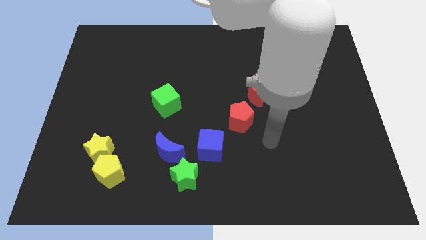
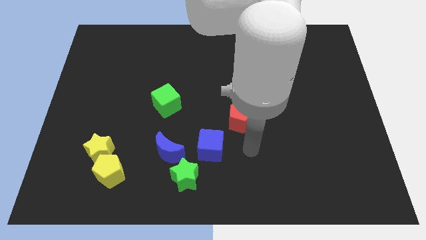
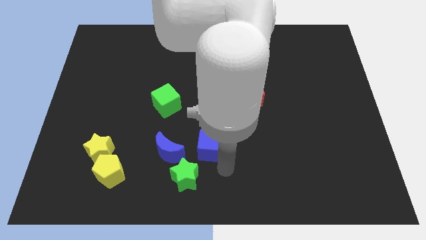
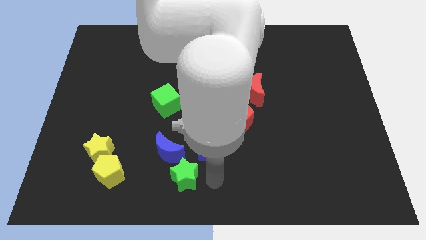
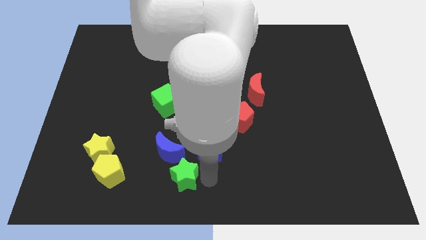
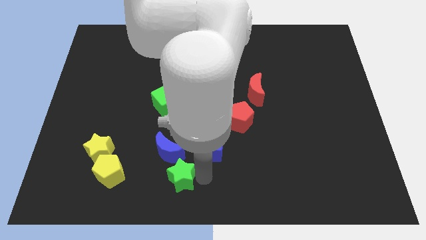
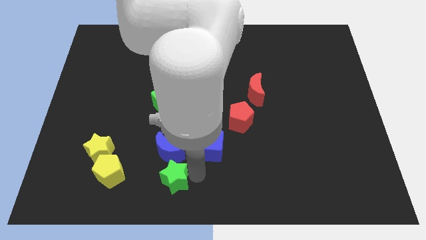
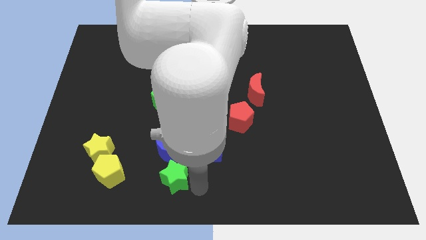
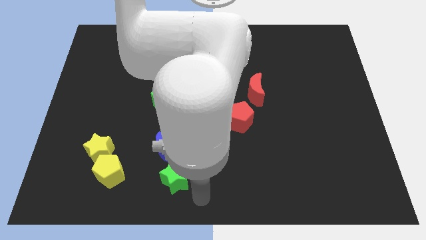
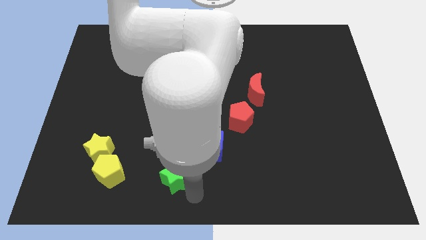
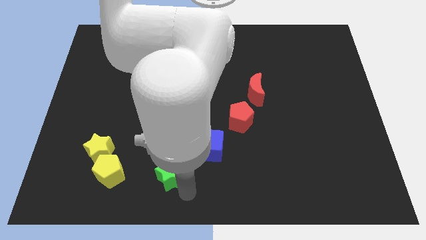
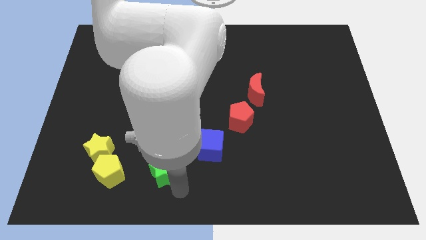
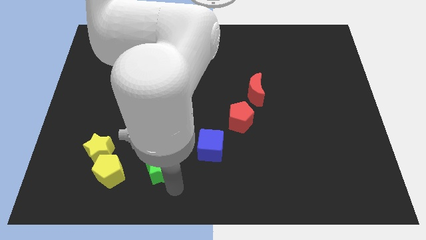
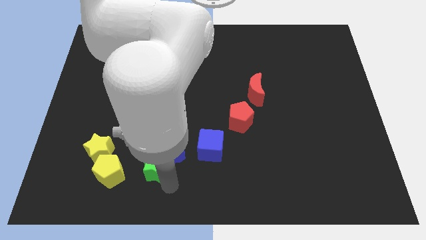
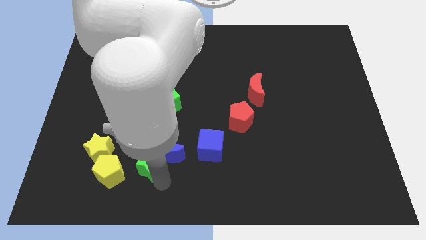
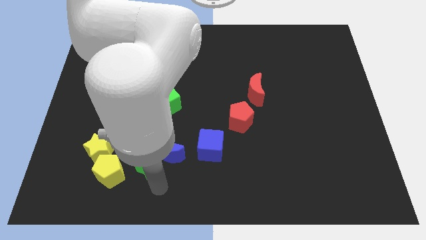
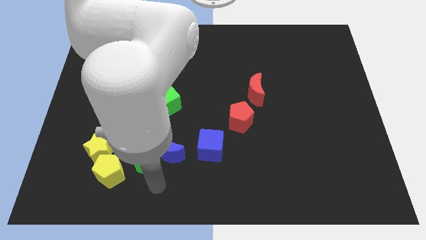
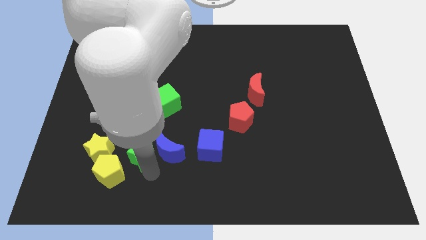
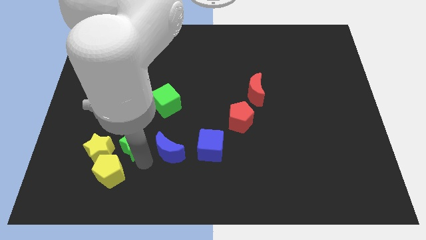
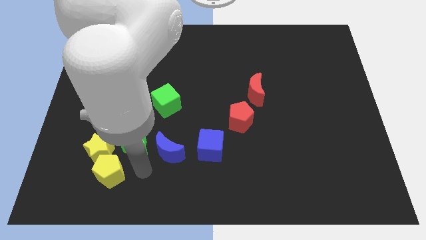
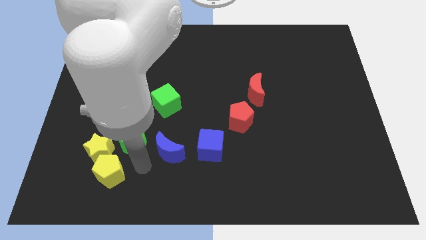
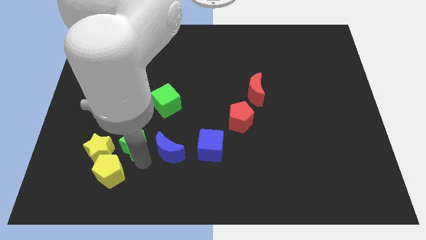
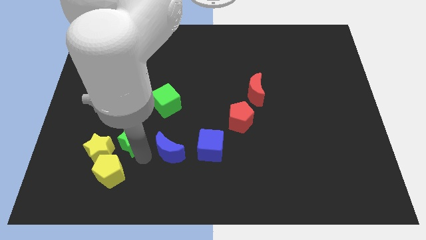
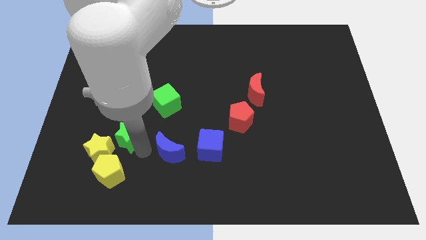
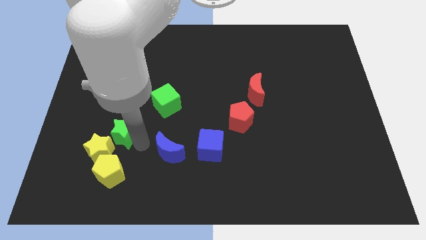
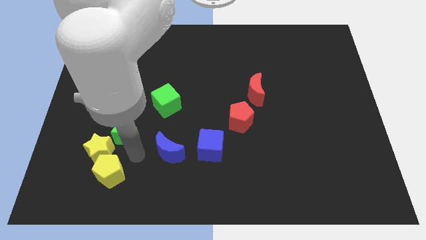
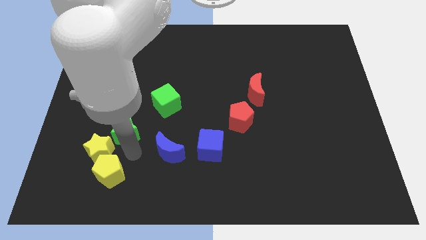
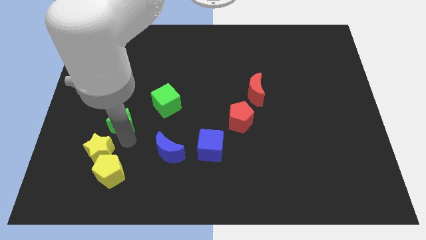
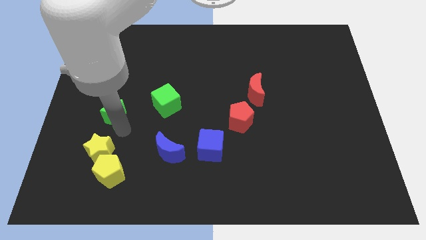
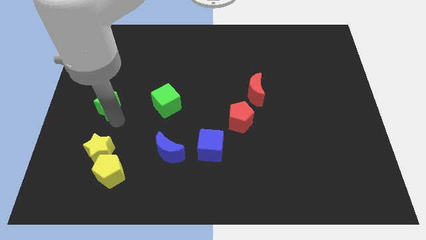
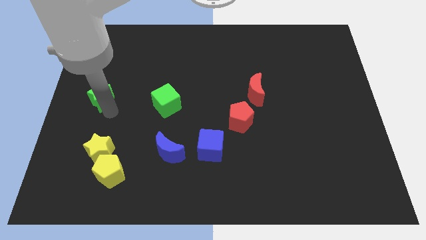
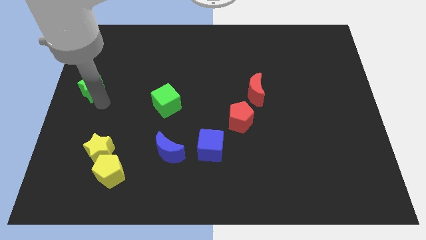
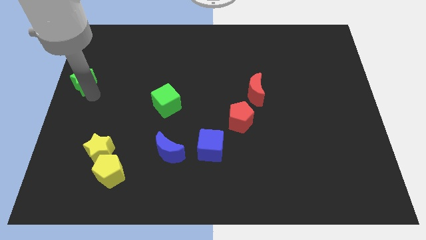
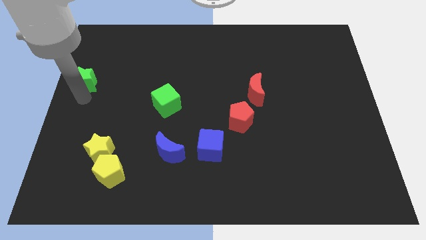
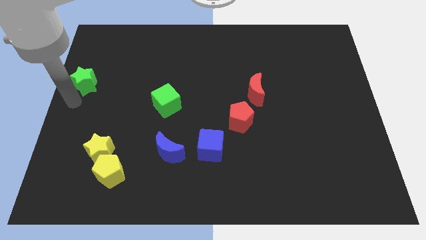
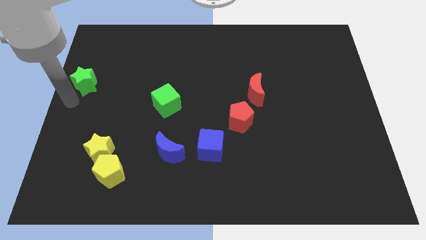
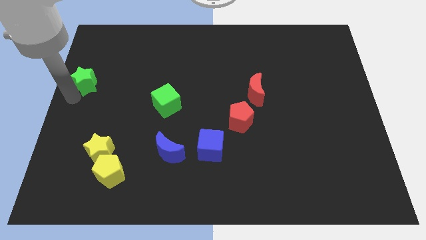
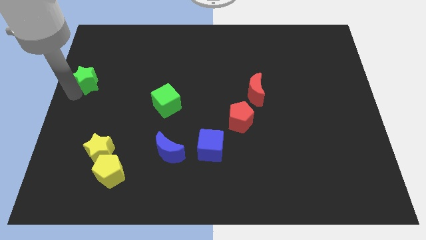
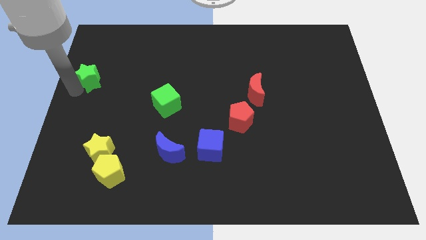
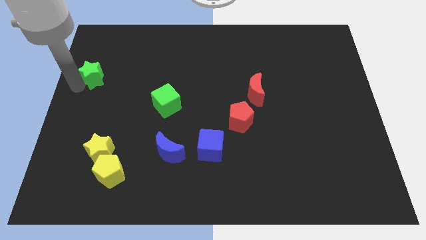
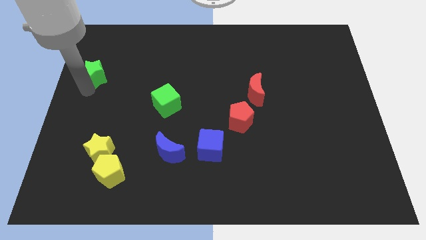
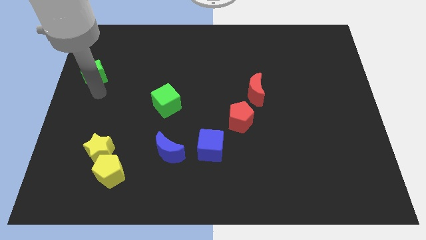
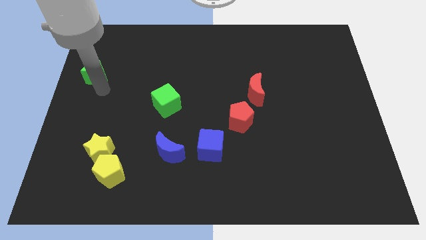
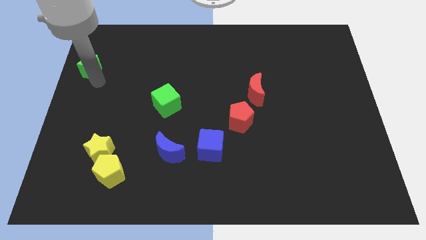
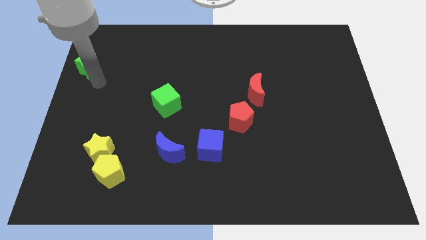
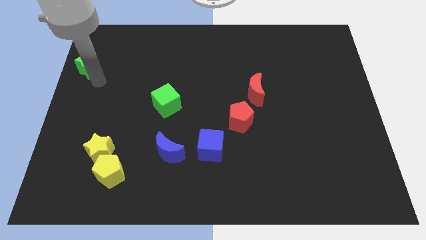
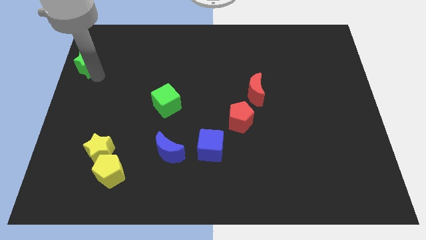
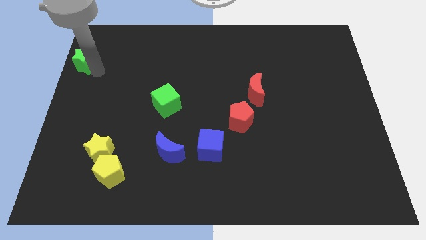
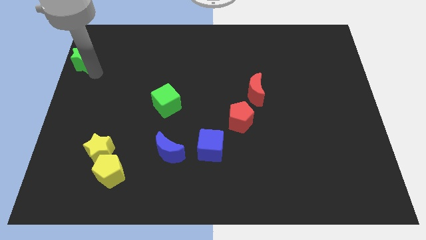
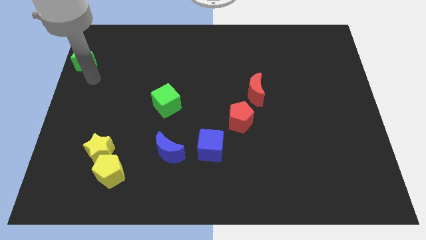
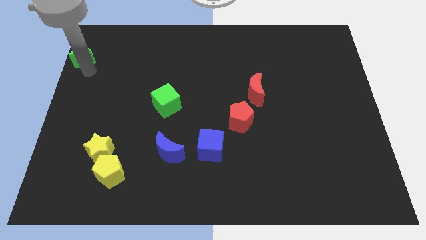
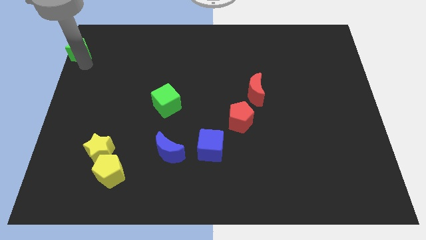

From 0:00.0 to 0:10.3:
push the green star to the upper left corner

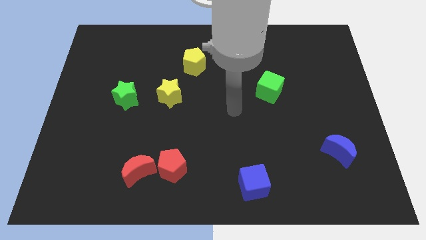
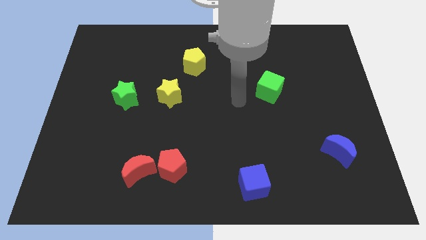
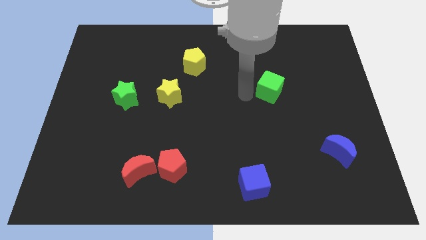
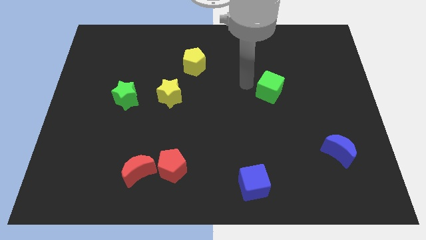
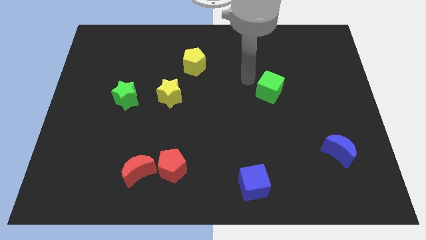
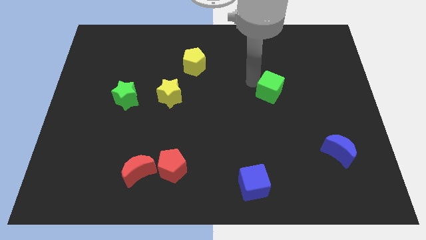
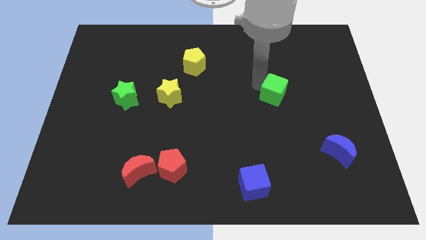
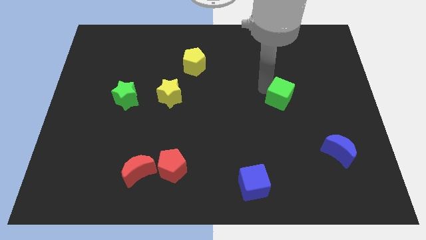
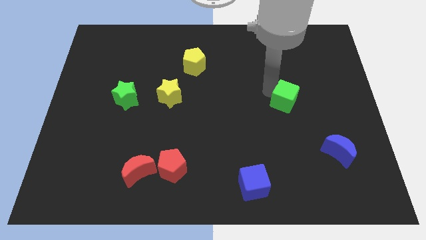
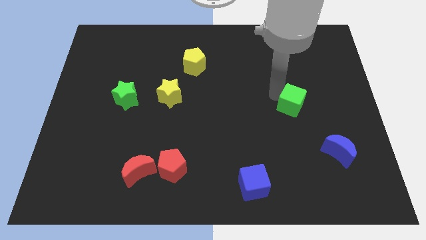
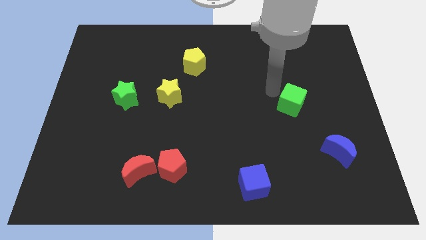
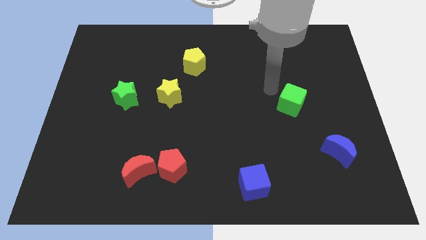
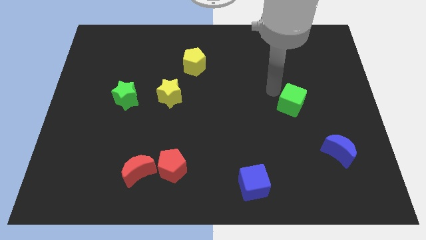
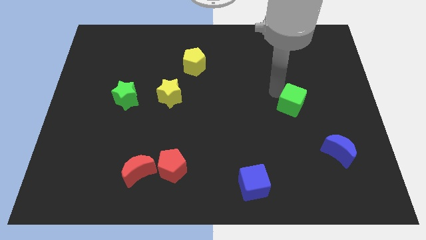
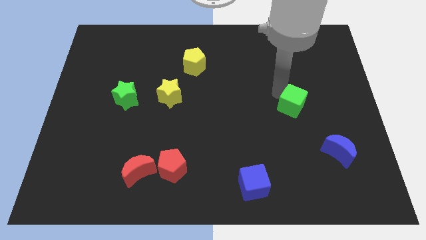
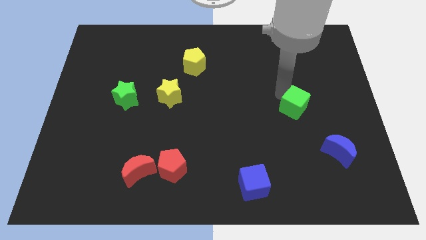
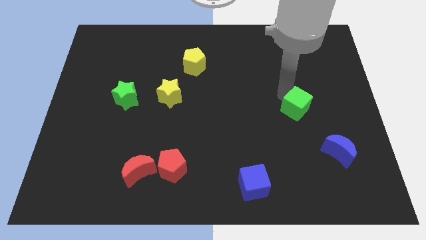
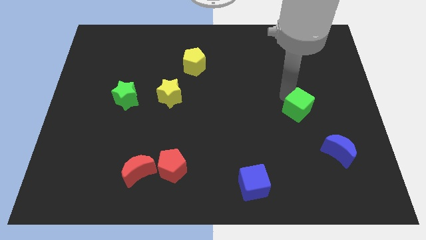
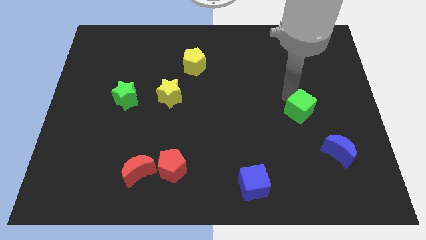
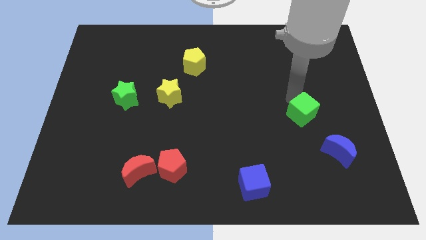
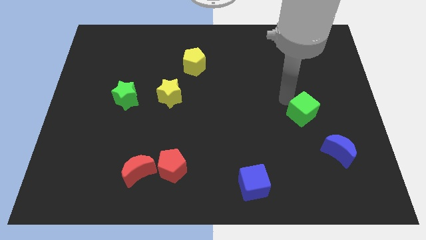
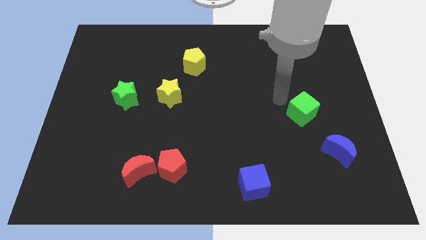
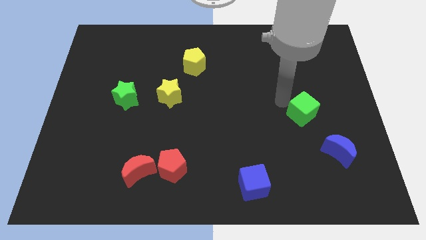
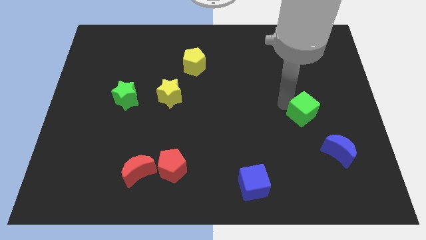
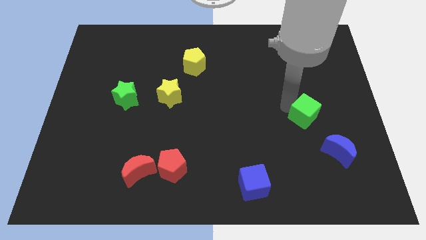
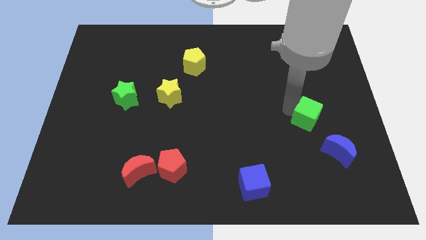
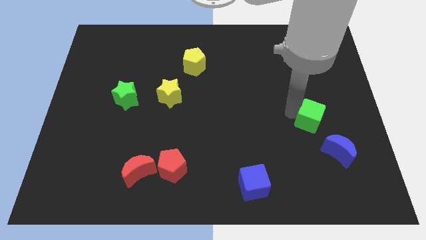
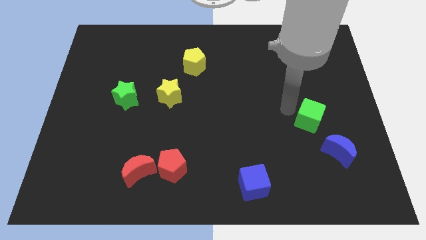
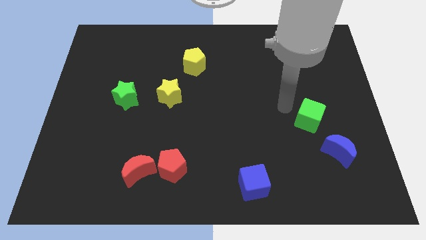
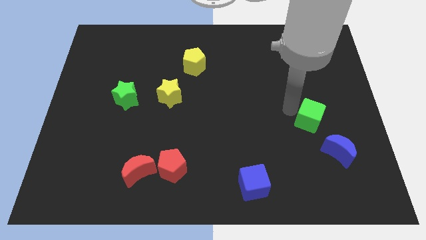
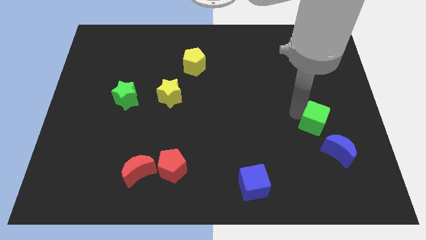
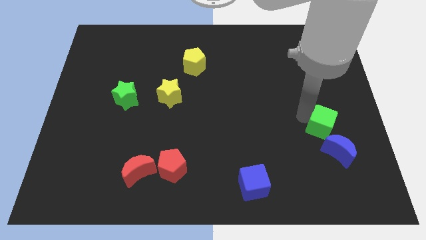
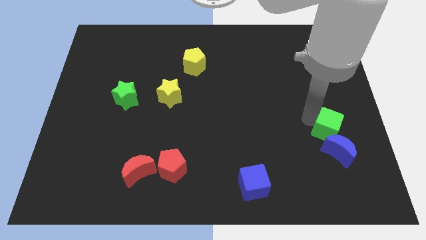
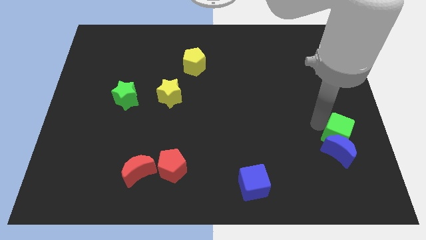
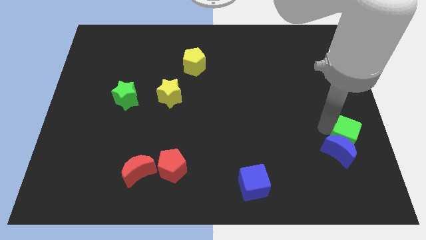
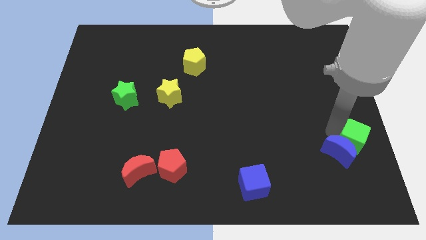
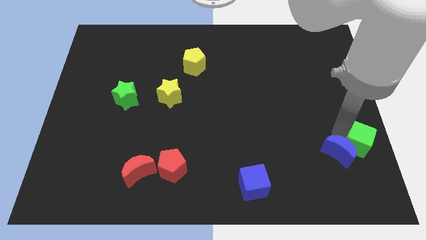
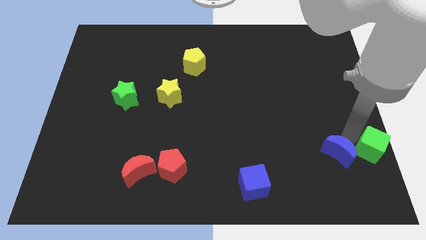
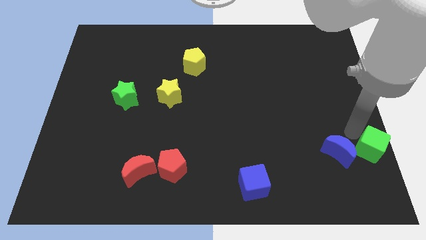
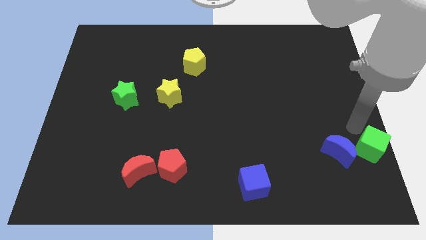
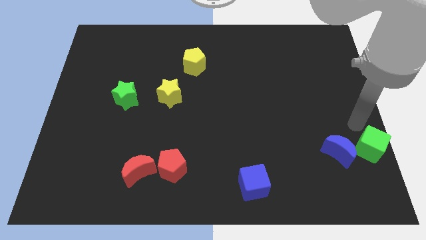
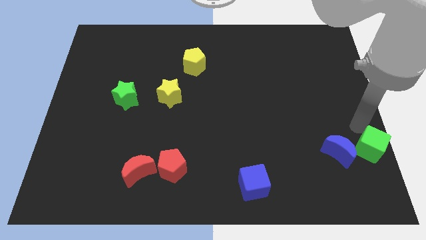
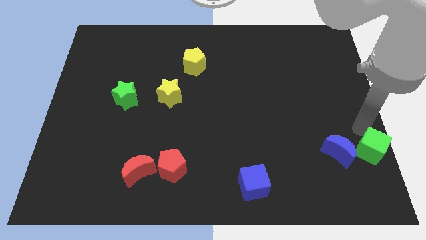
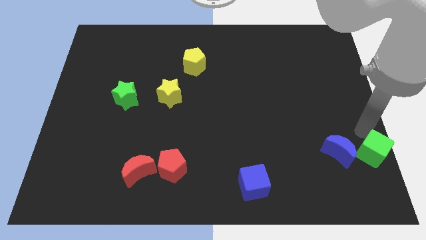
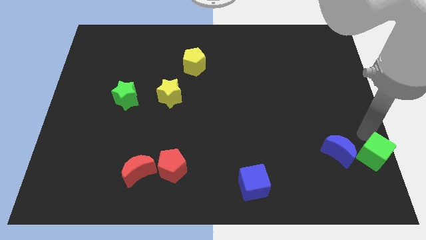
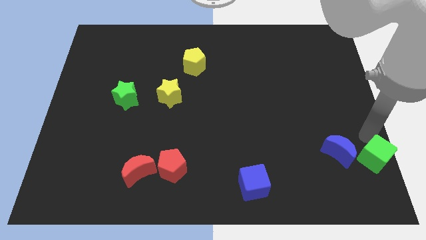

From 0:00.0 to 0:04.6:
push the green cube to the bottom right corner
